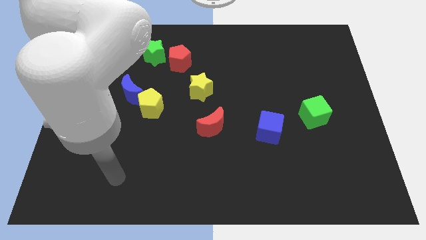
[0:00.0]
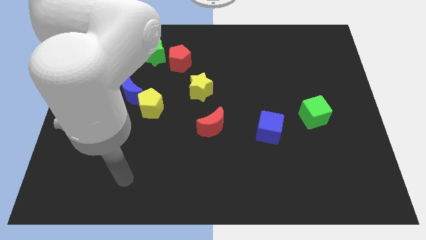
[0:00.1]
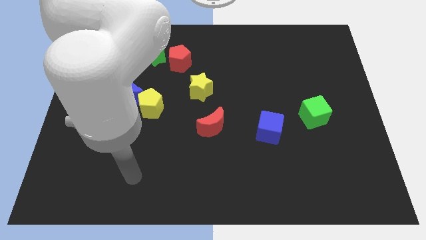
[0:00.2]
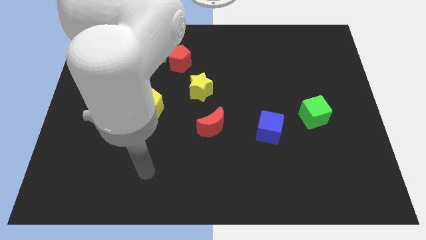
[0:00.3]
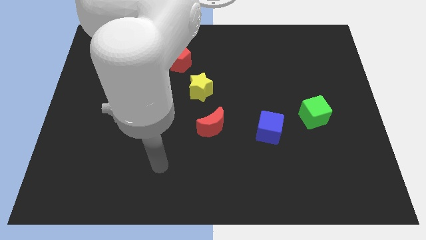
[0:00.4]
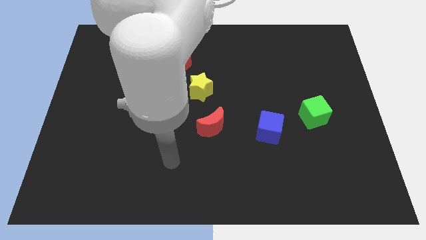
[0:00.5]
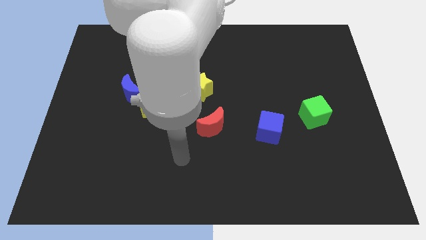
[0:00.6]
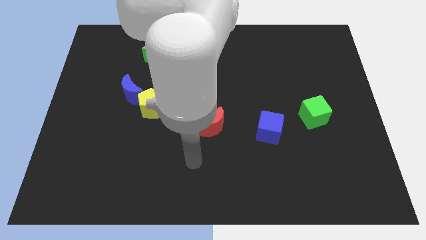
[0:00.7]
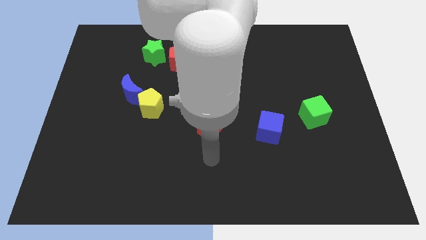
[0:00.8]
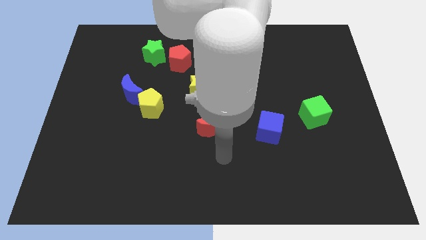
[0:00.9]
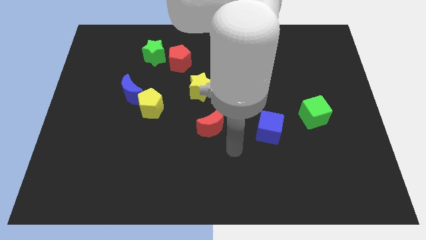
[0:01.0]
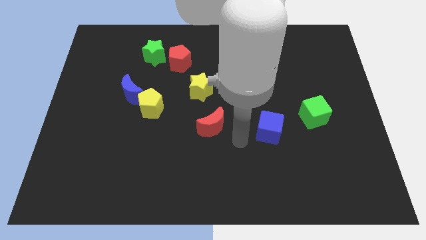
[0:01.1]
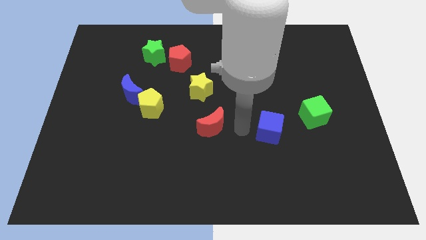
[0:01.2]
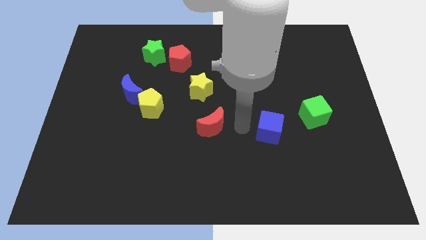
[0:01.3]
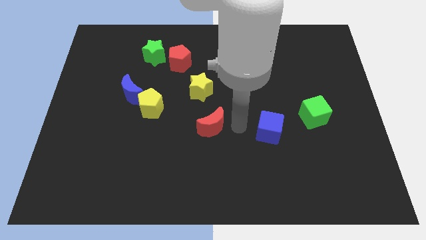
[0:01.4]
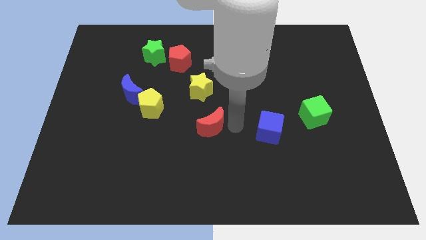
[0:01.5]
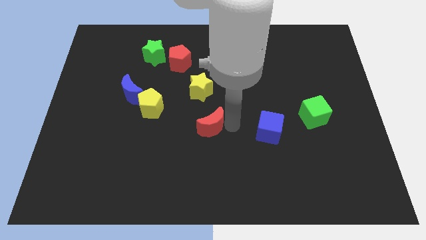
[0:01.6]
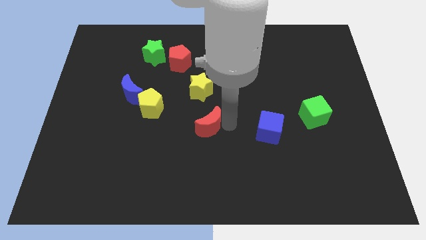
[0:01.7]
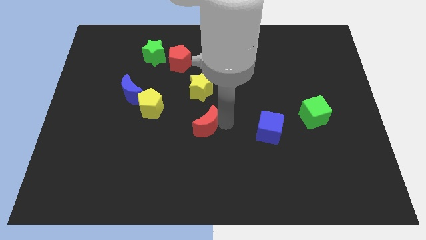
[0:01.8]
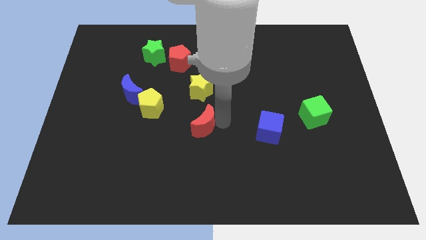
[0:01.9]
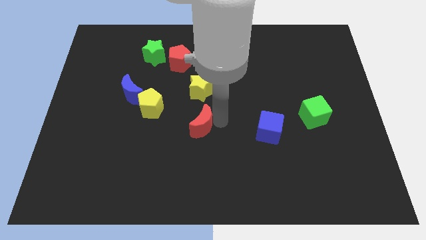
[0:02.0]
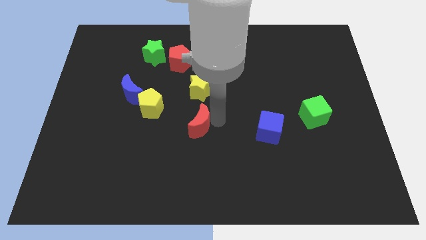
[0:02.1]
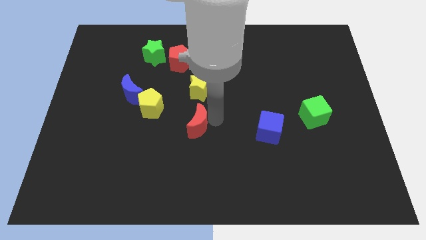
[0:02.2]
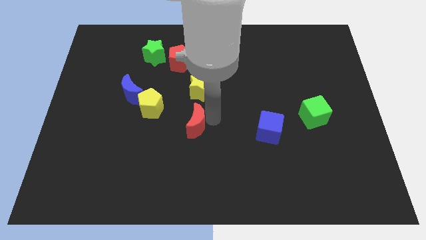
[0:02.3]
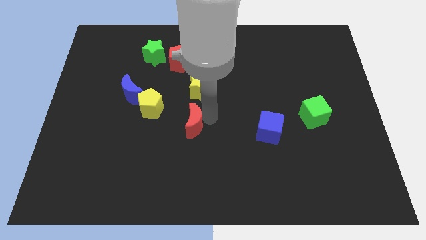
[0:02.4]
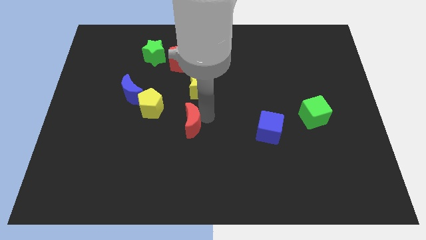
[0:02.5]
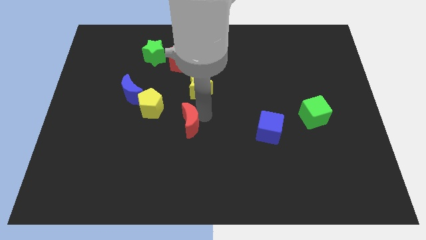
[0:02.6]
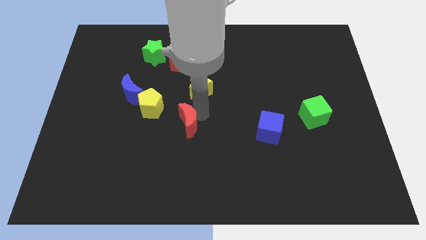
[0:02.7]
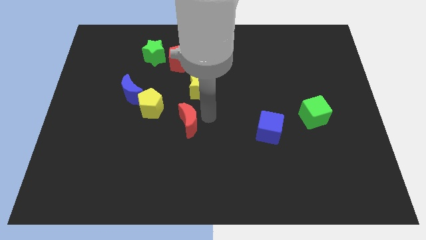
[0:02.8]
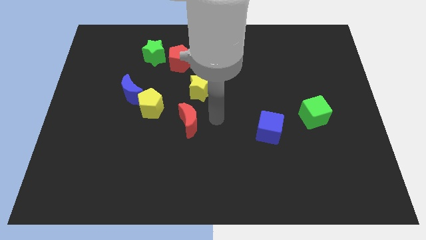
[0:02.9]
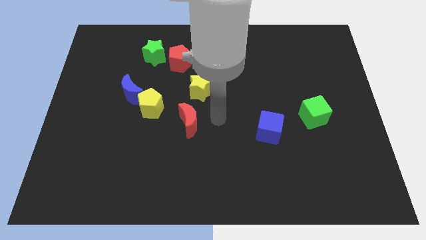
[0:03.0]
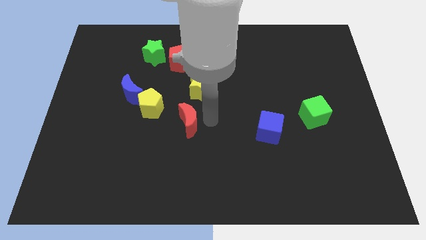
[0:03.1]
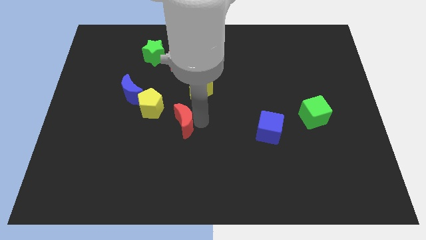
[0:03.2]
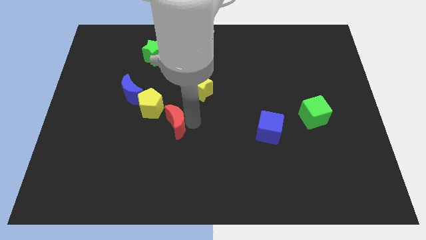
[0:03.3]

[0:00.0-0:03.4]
move the red moon left slightly

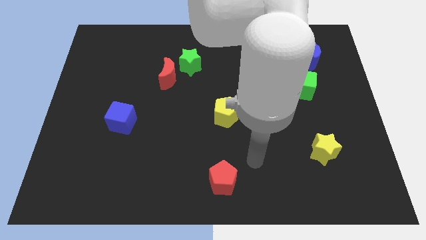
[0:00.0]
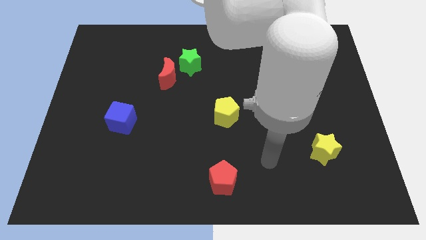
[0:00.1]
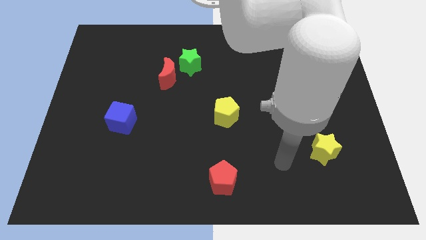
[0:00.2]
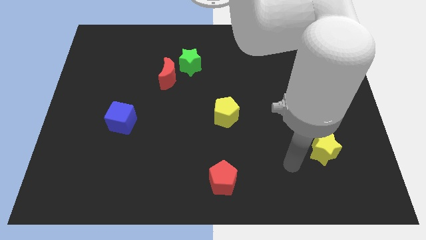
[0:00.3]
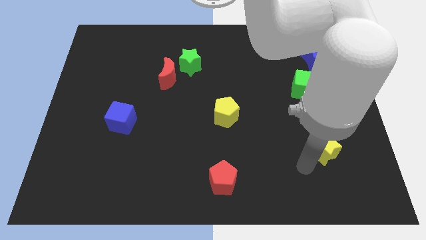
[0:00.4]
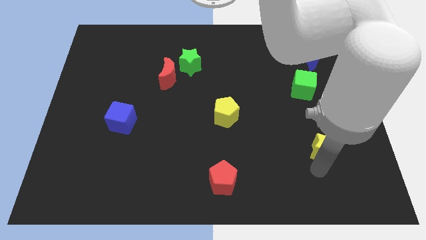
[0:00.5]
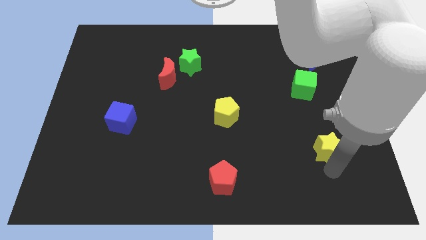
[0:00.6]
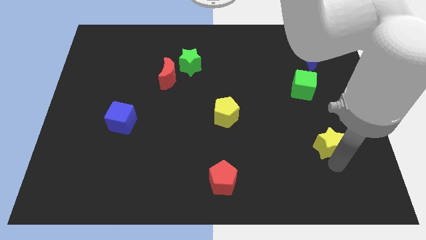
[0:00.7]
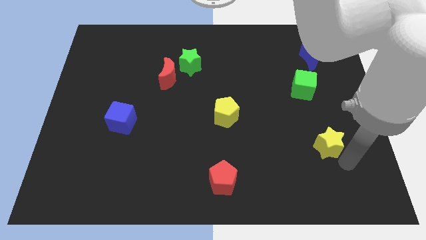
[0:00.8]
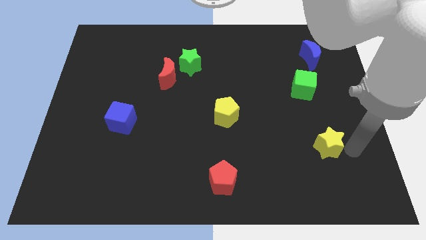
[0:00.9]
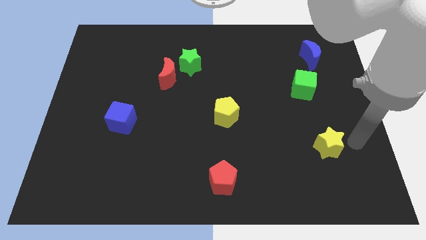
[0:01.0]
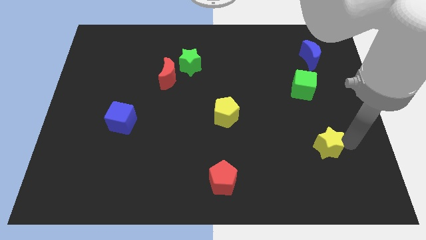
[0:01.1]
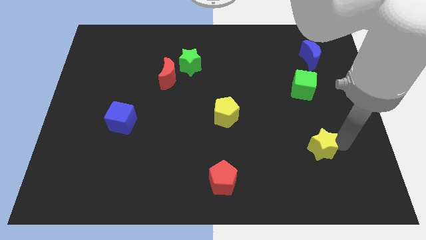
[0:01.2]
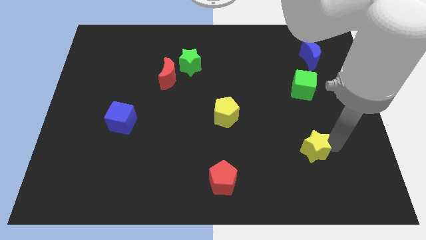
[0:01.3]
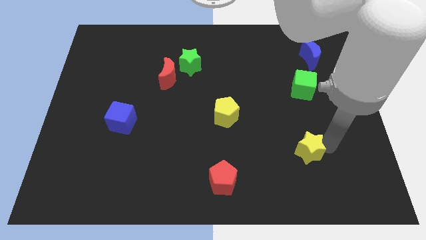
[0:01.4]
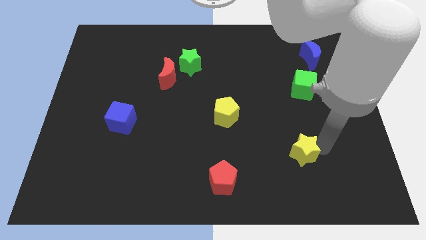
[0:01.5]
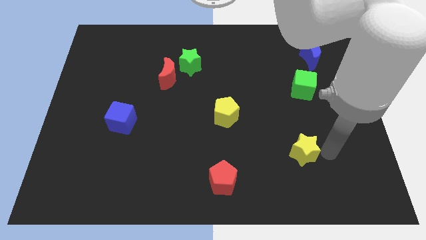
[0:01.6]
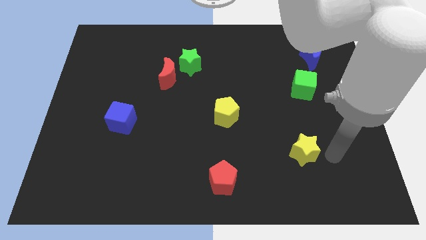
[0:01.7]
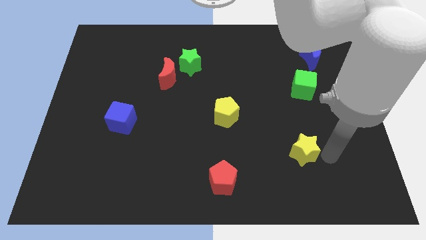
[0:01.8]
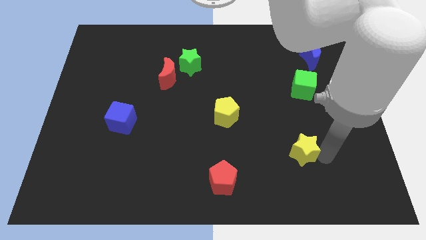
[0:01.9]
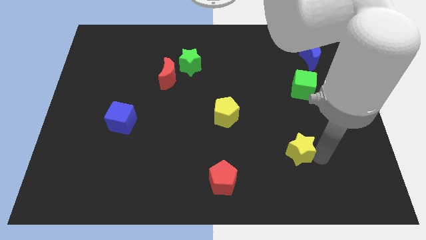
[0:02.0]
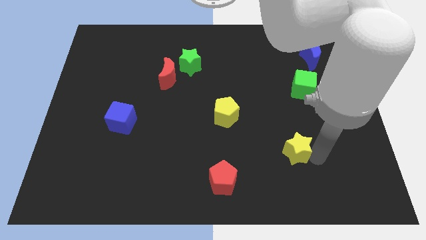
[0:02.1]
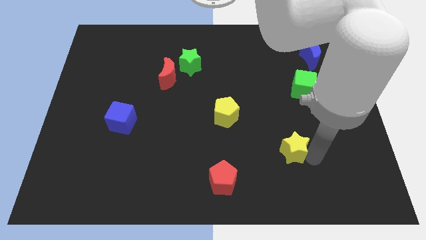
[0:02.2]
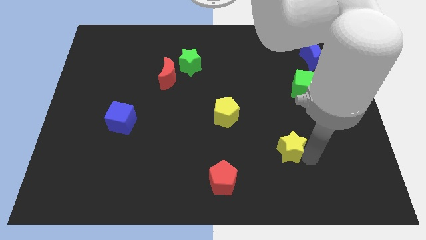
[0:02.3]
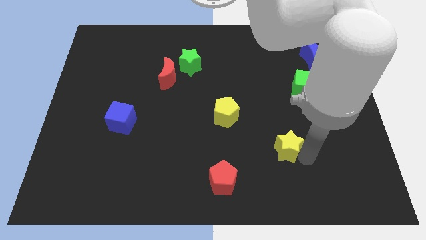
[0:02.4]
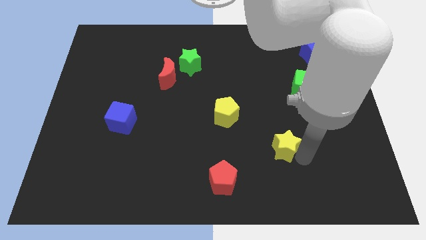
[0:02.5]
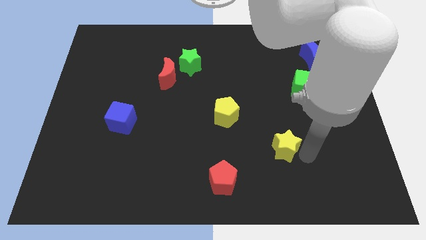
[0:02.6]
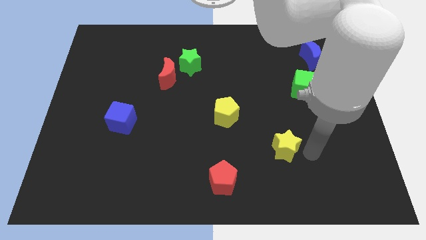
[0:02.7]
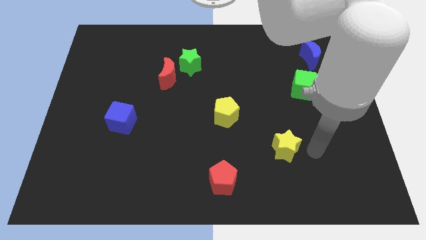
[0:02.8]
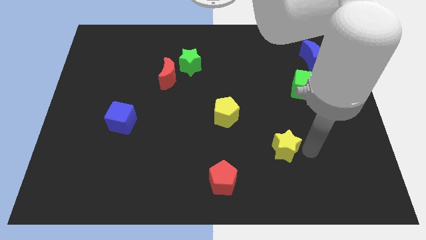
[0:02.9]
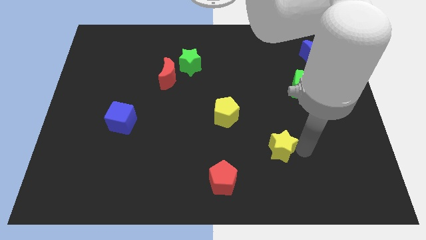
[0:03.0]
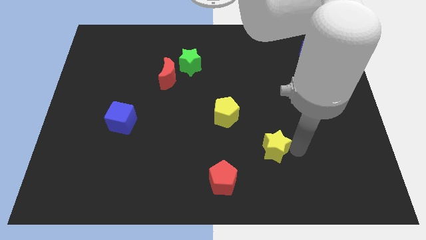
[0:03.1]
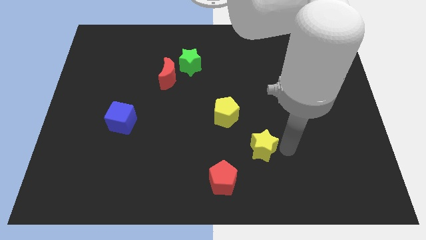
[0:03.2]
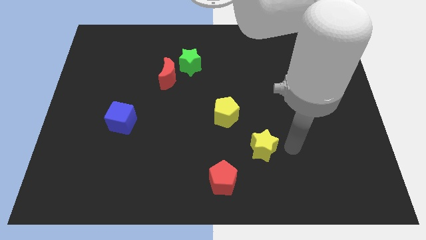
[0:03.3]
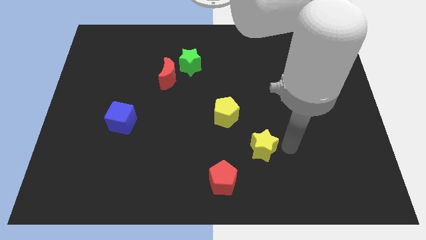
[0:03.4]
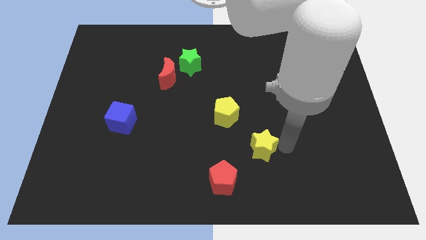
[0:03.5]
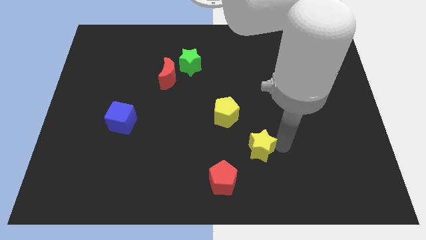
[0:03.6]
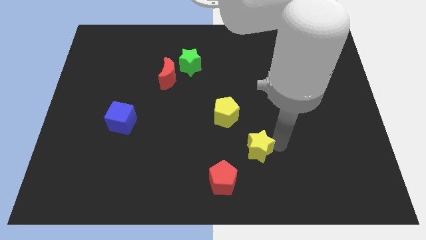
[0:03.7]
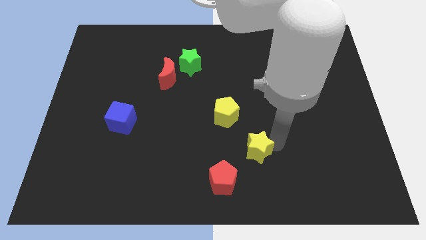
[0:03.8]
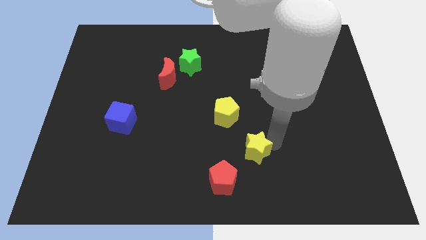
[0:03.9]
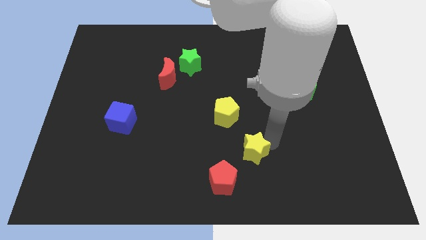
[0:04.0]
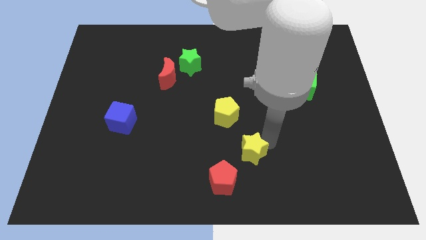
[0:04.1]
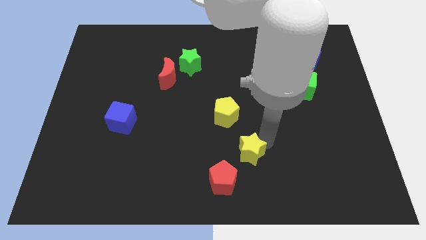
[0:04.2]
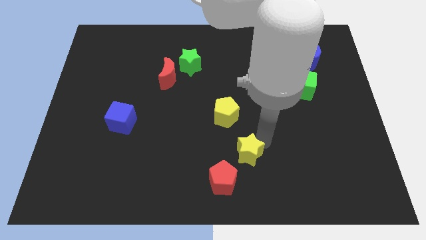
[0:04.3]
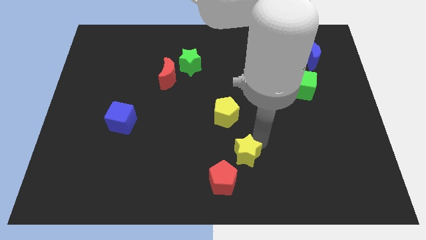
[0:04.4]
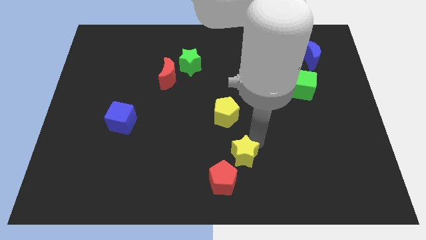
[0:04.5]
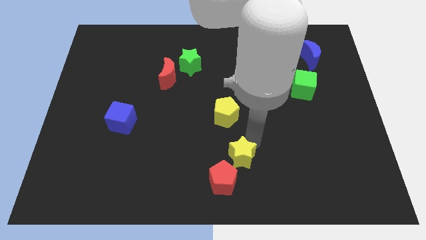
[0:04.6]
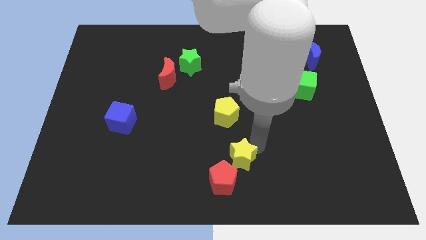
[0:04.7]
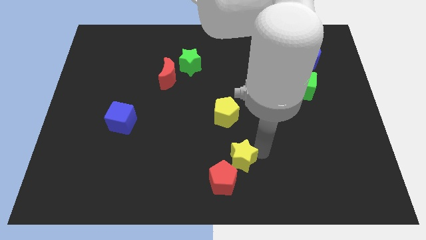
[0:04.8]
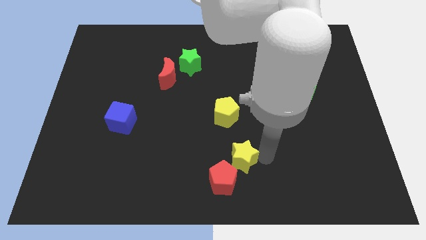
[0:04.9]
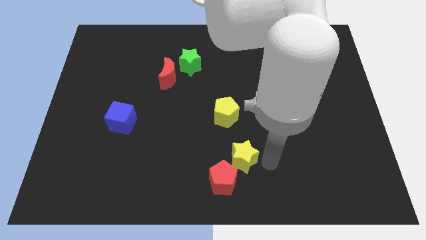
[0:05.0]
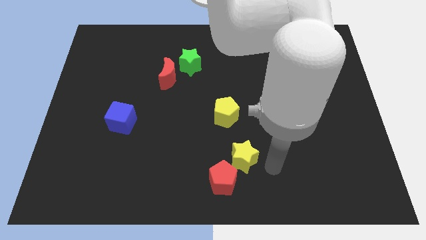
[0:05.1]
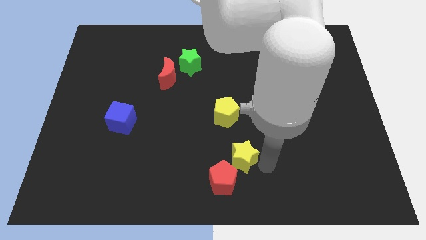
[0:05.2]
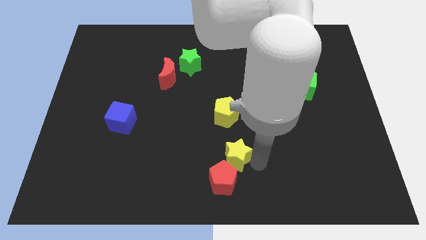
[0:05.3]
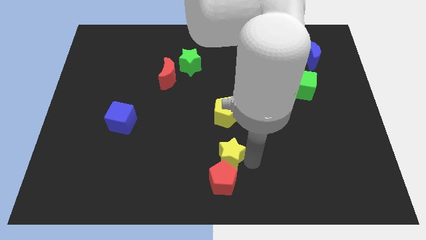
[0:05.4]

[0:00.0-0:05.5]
move the yellow star left
